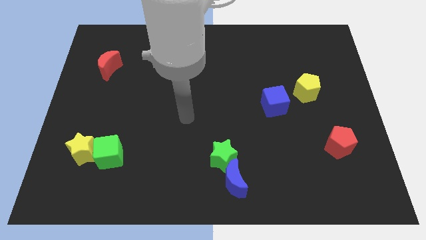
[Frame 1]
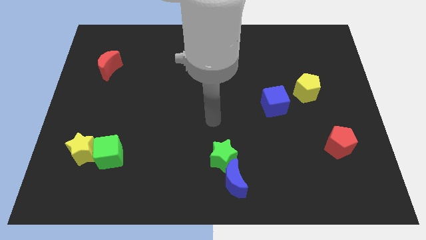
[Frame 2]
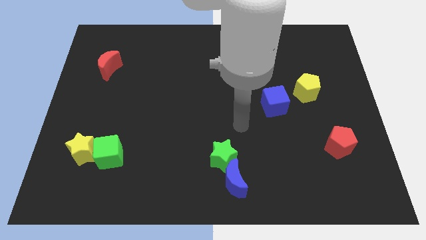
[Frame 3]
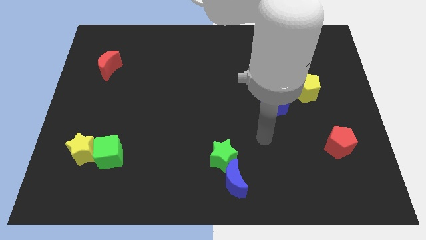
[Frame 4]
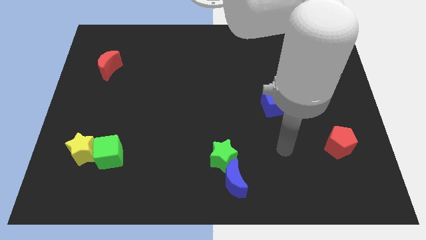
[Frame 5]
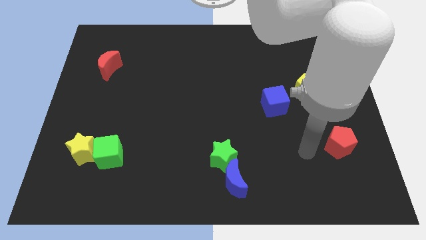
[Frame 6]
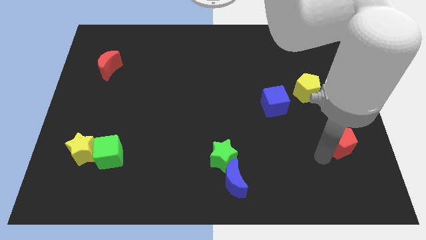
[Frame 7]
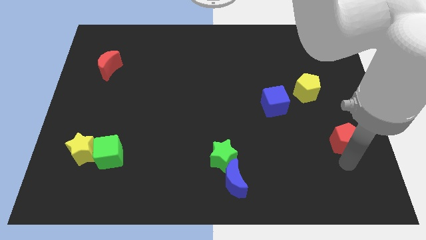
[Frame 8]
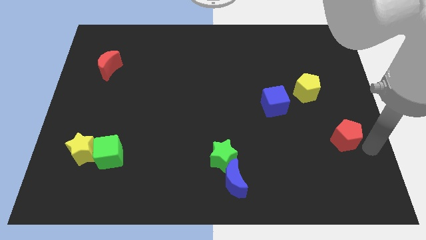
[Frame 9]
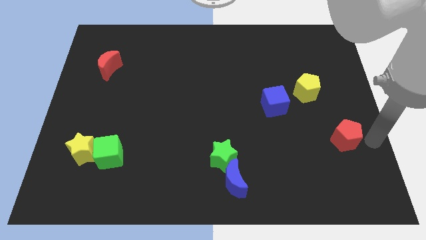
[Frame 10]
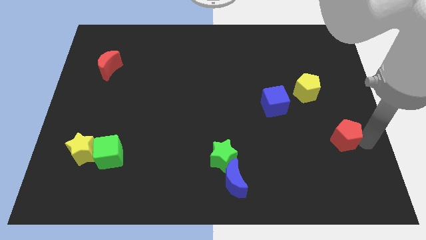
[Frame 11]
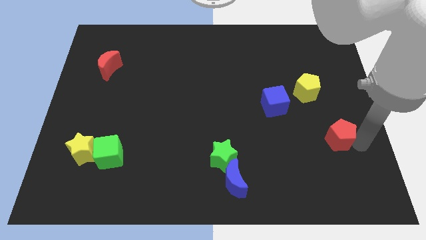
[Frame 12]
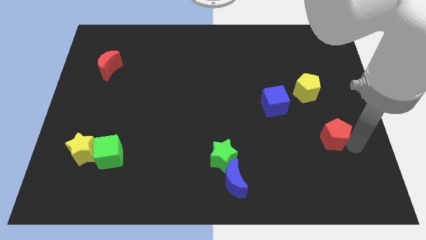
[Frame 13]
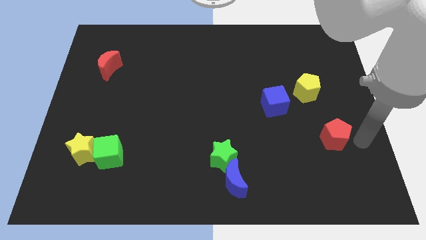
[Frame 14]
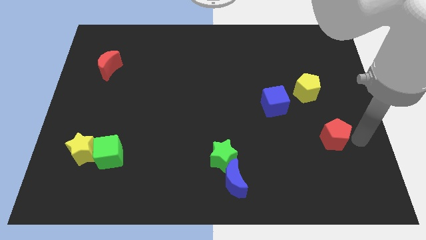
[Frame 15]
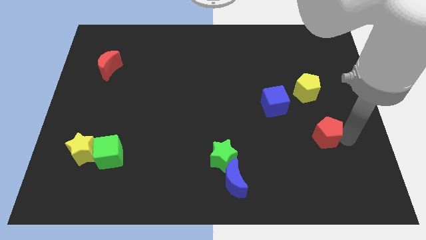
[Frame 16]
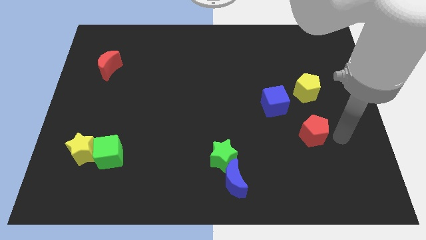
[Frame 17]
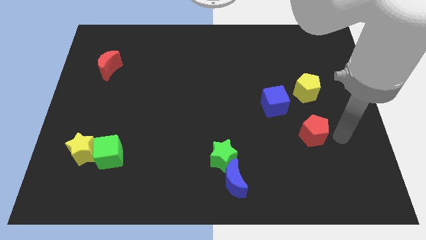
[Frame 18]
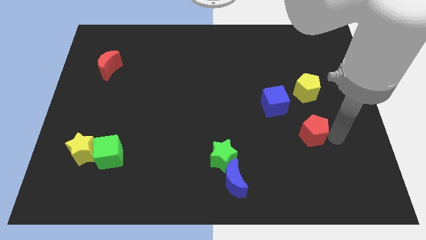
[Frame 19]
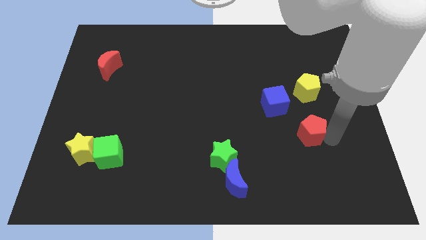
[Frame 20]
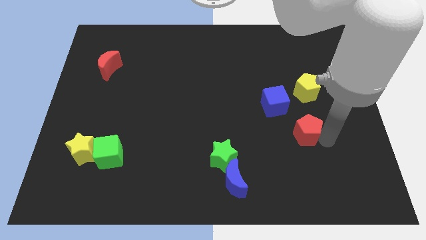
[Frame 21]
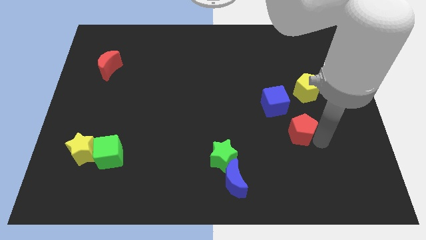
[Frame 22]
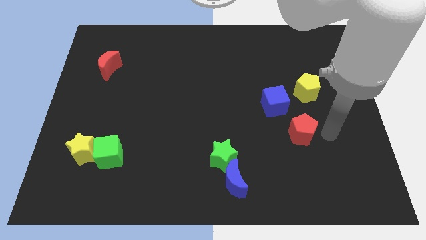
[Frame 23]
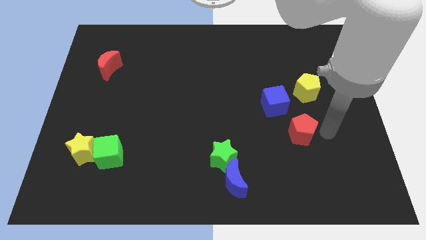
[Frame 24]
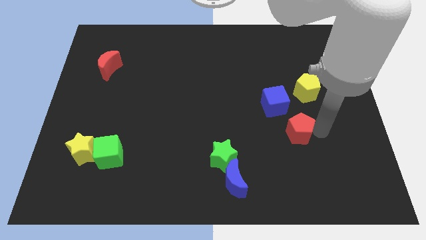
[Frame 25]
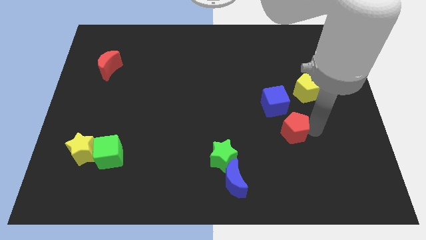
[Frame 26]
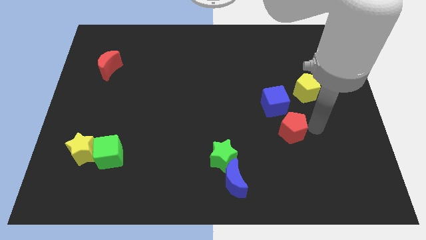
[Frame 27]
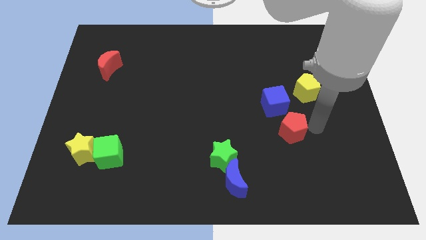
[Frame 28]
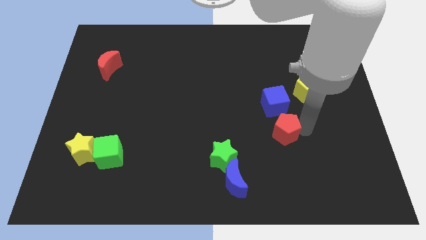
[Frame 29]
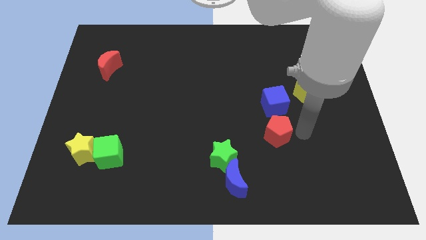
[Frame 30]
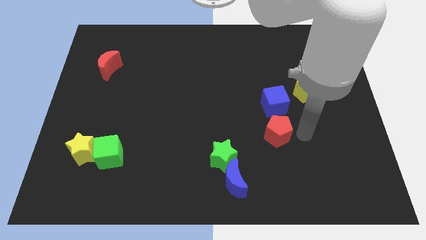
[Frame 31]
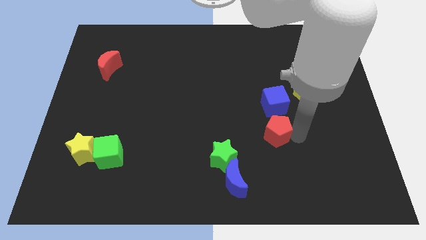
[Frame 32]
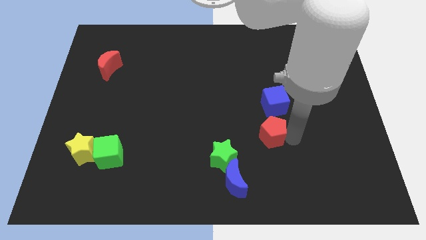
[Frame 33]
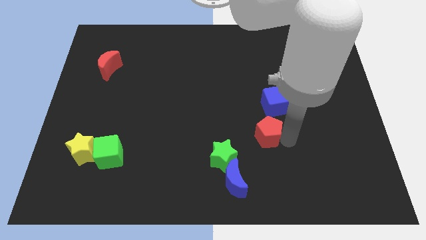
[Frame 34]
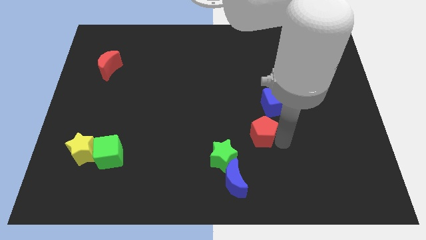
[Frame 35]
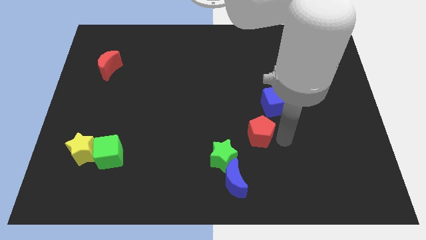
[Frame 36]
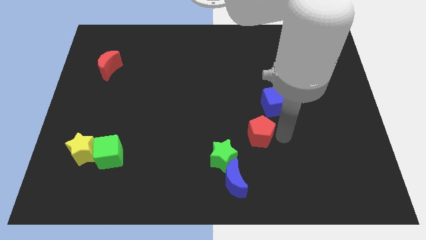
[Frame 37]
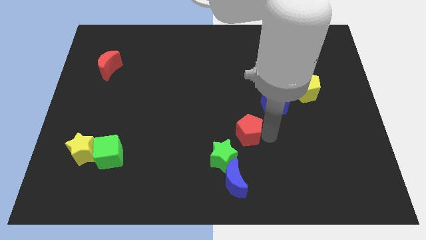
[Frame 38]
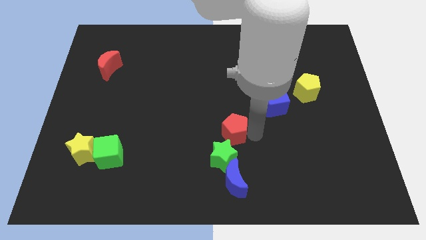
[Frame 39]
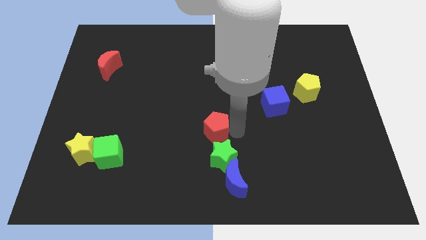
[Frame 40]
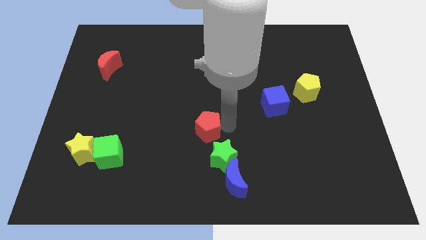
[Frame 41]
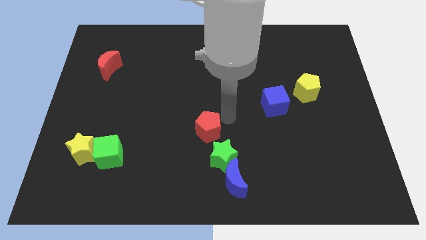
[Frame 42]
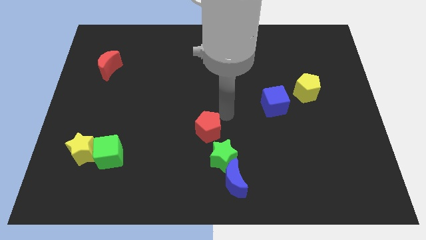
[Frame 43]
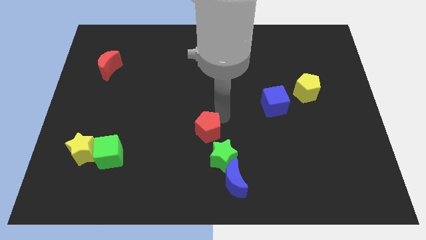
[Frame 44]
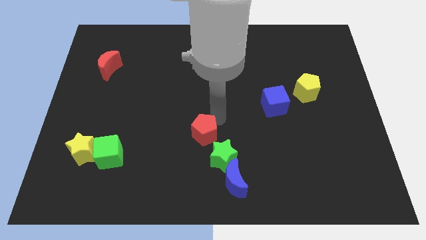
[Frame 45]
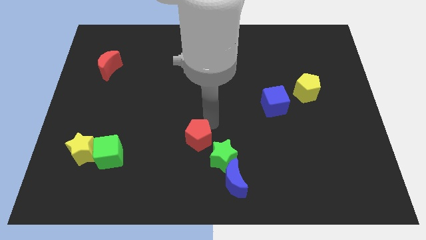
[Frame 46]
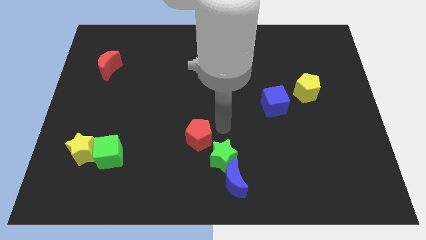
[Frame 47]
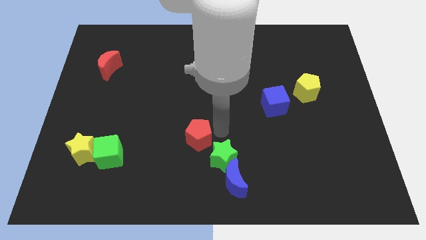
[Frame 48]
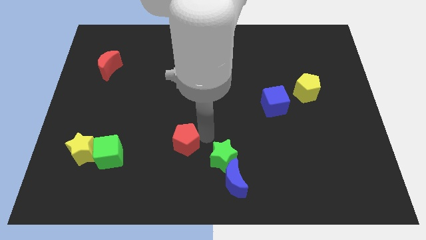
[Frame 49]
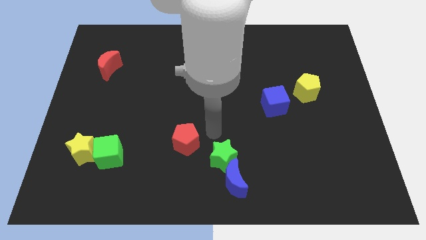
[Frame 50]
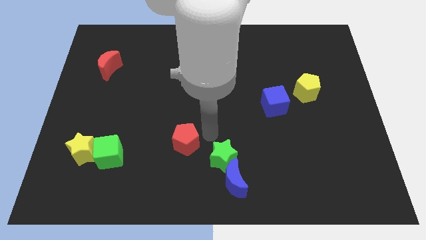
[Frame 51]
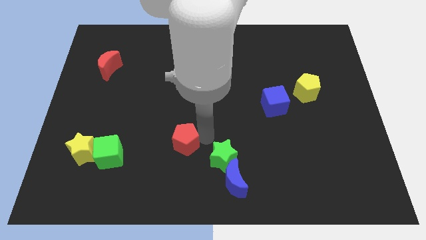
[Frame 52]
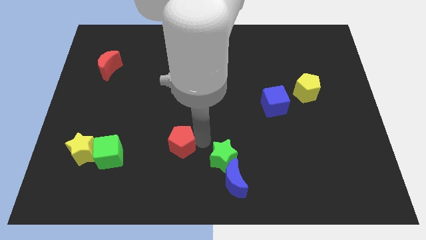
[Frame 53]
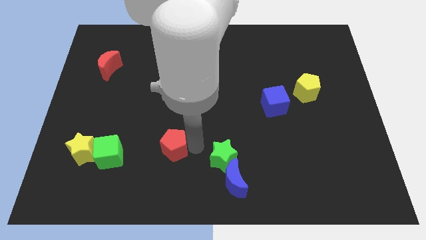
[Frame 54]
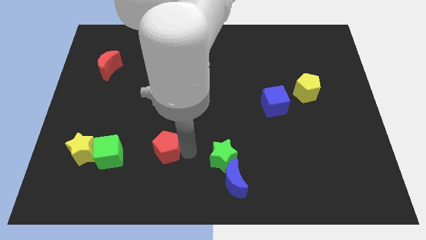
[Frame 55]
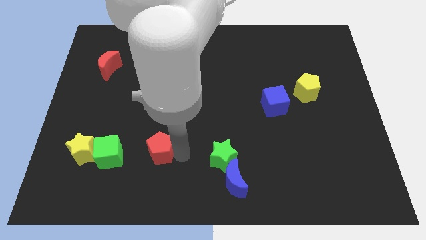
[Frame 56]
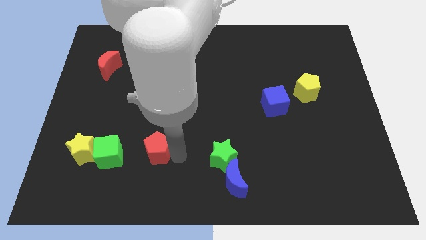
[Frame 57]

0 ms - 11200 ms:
push the red pentagon to the right of the yellow star
